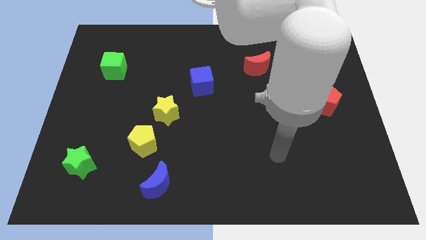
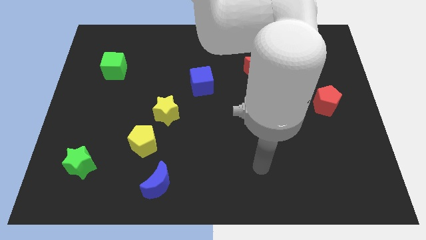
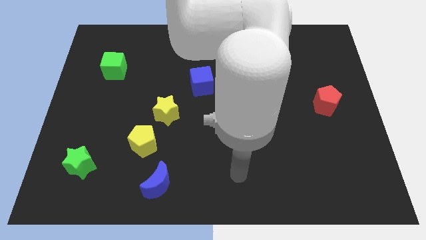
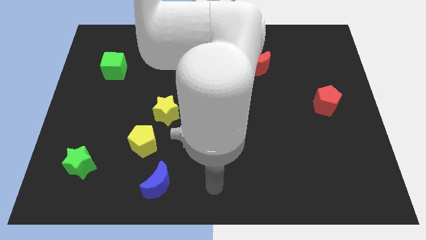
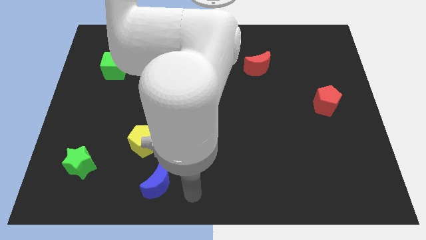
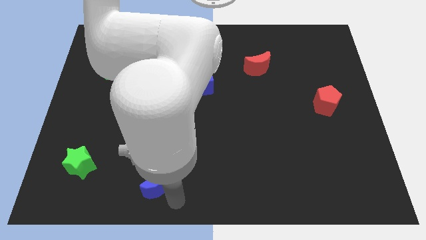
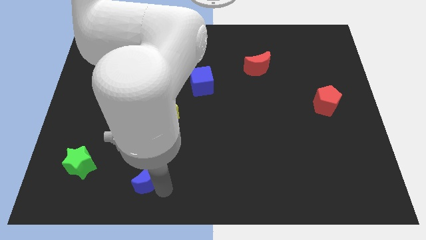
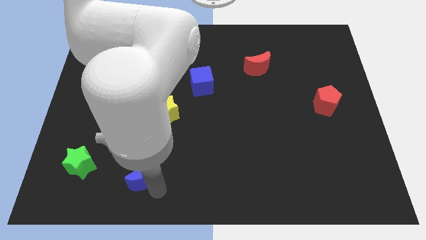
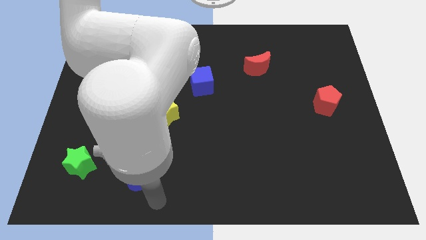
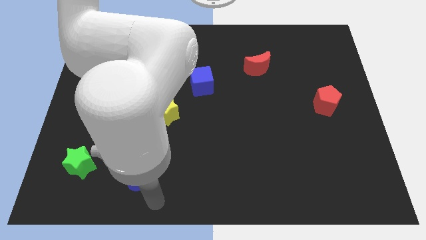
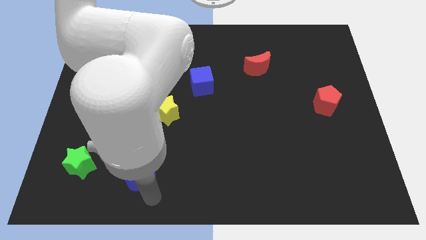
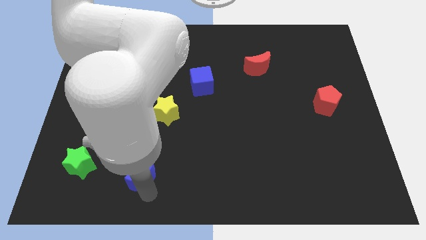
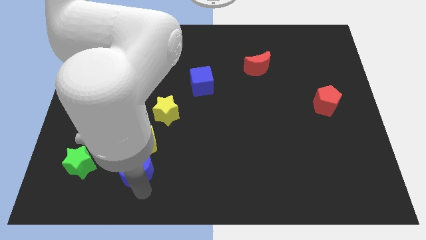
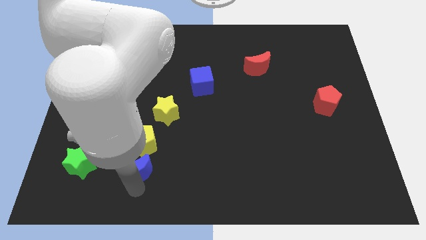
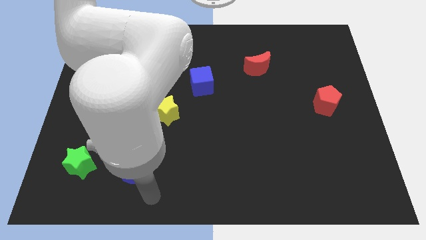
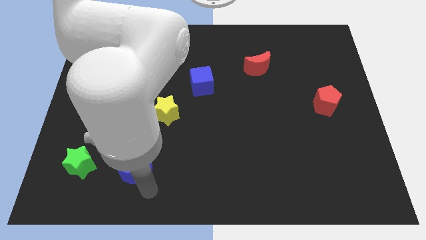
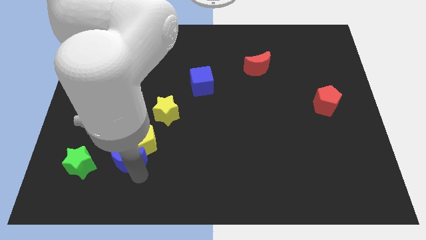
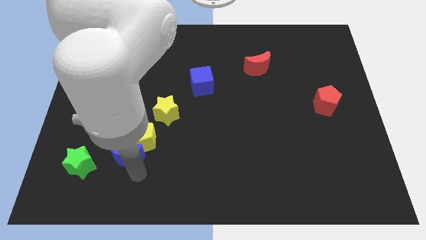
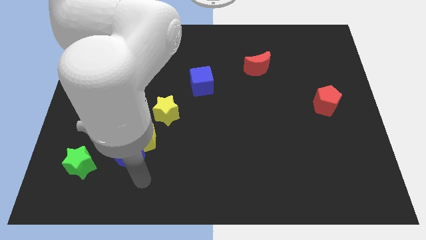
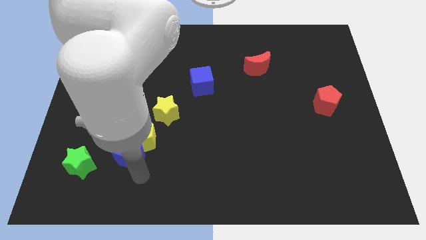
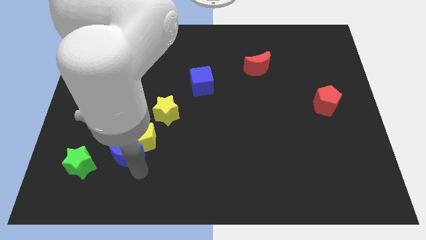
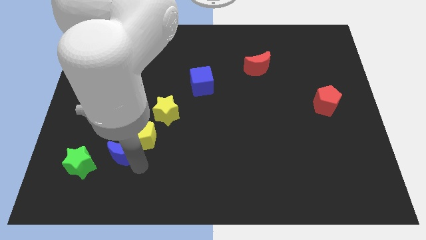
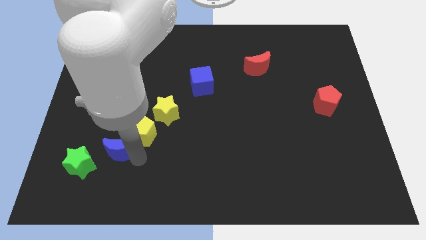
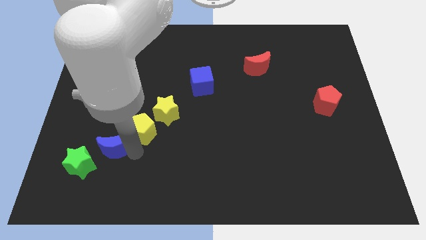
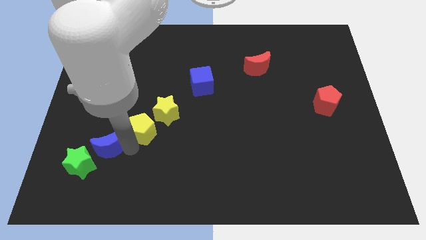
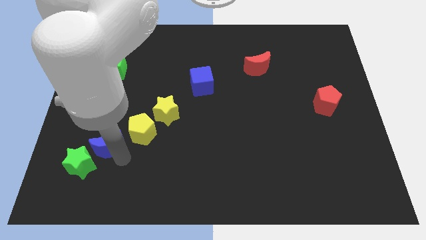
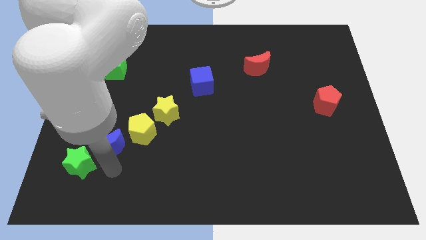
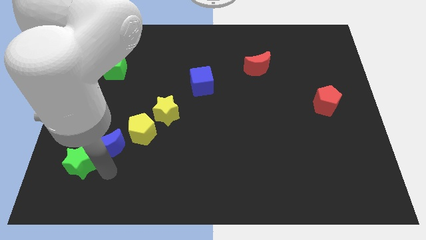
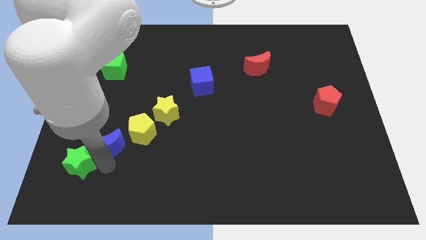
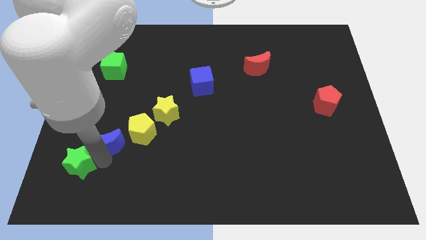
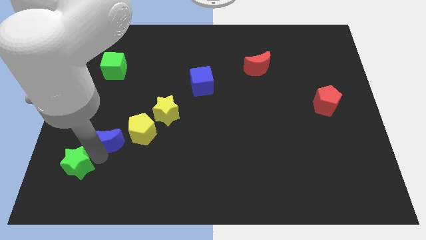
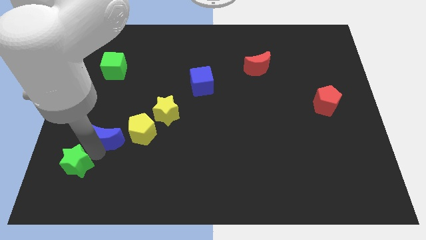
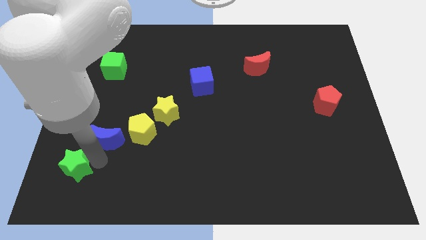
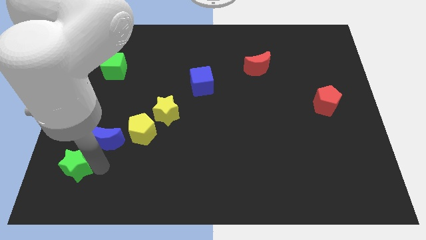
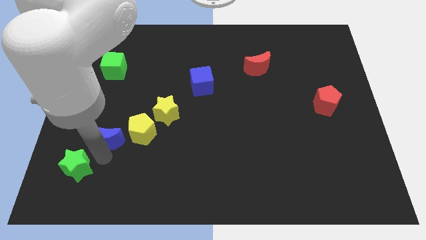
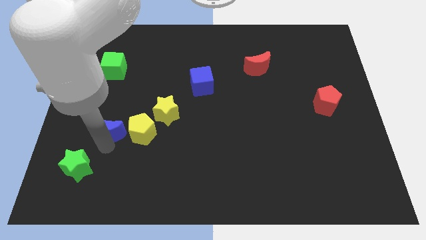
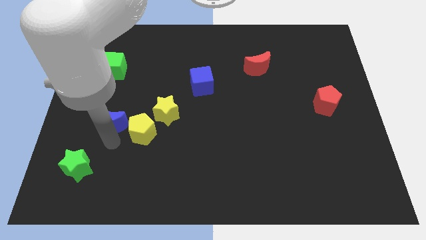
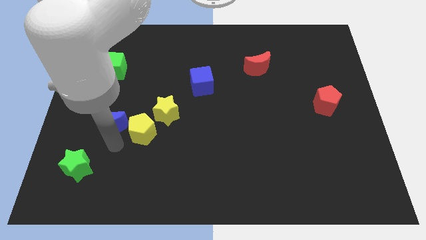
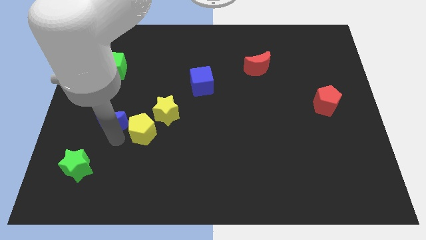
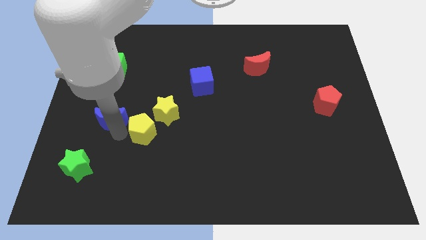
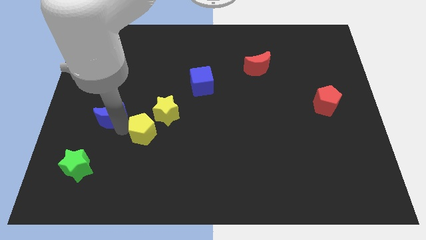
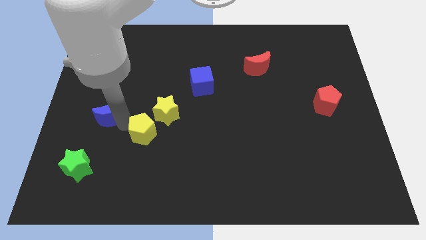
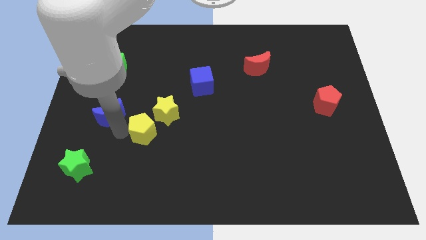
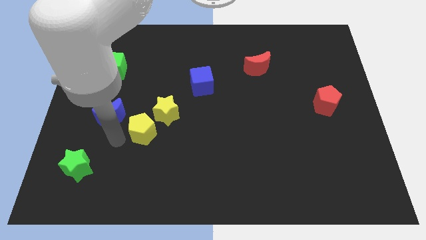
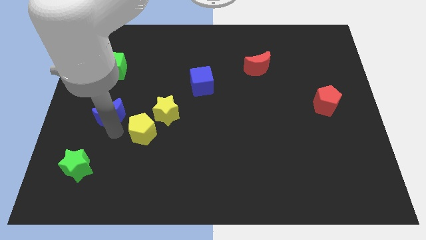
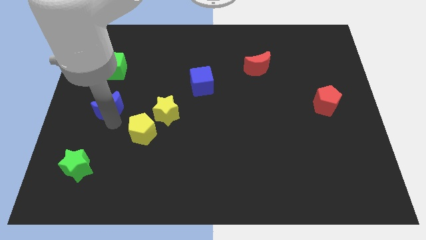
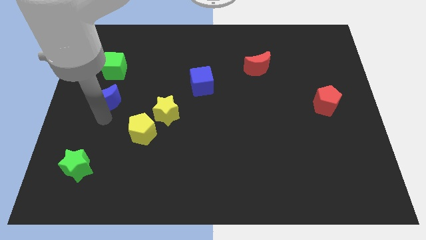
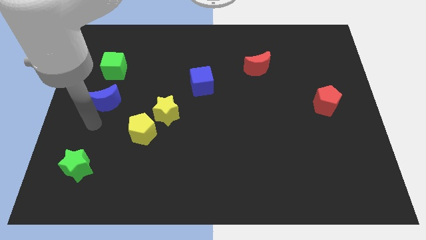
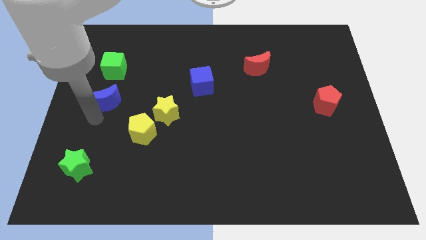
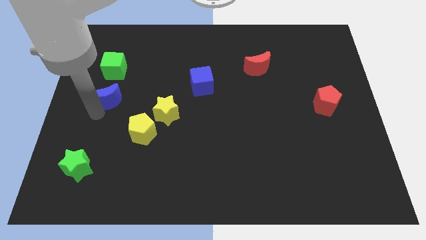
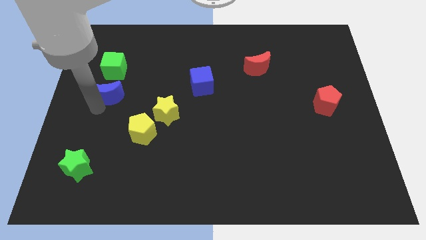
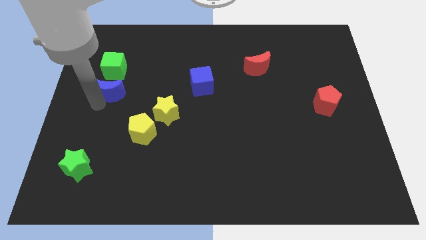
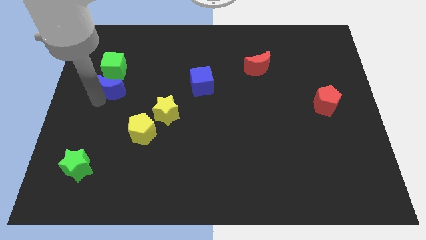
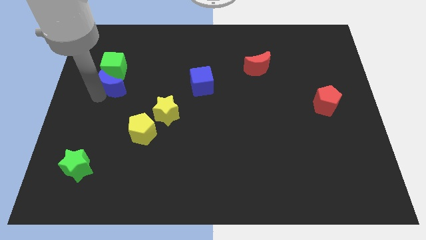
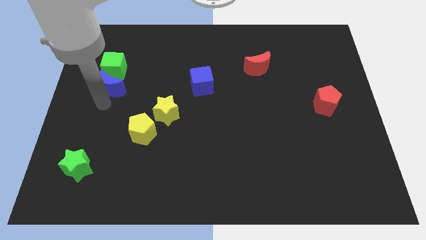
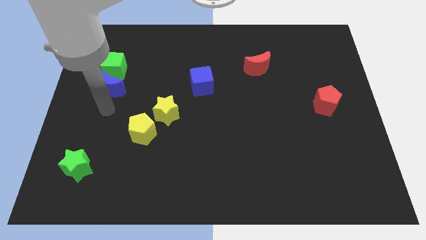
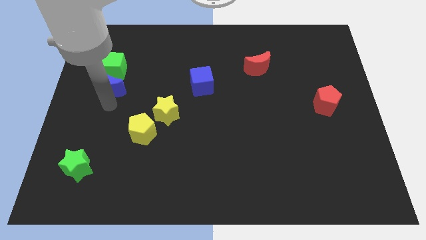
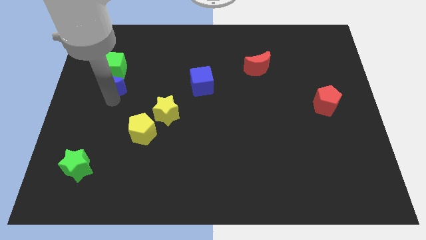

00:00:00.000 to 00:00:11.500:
put the blue moon towards the green cube

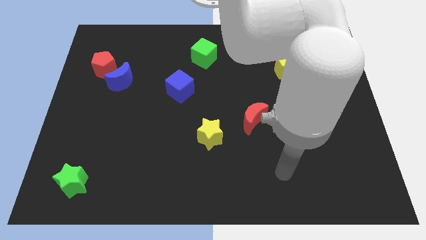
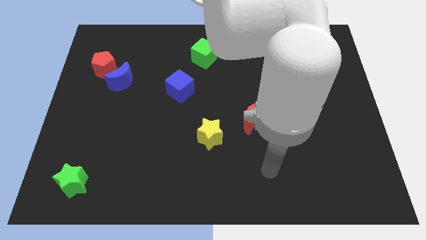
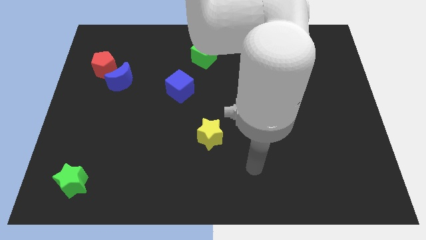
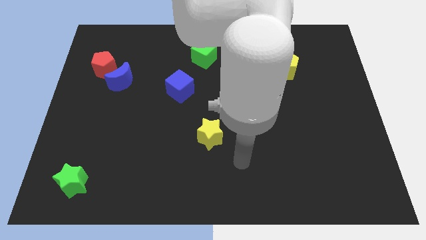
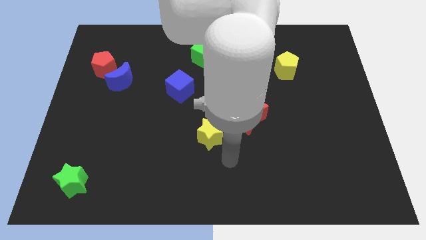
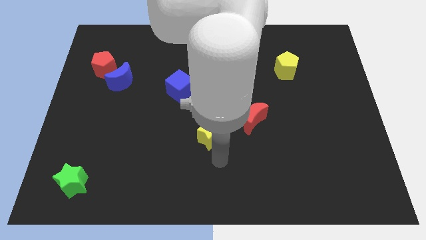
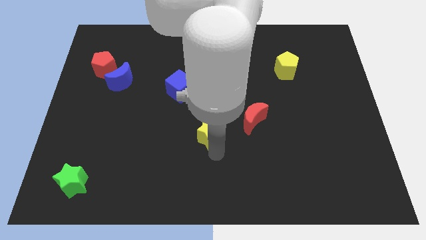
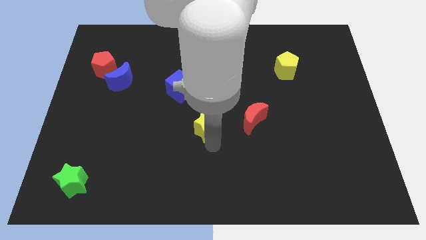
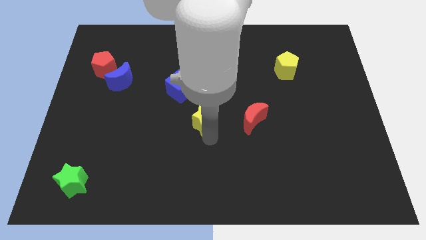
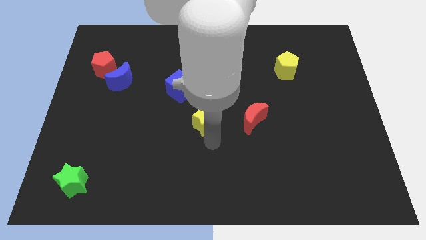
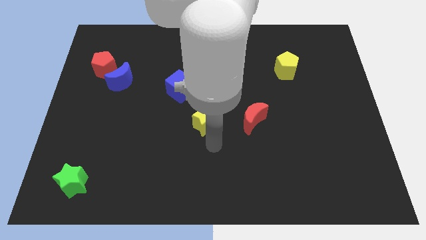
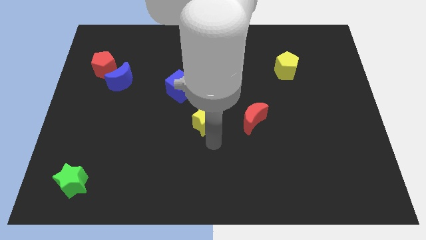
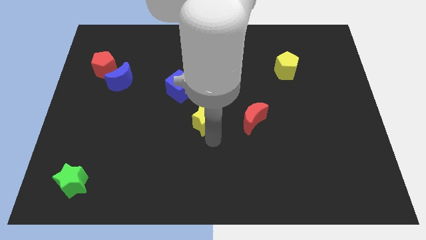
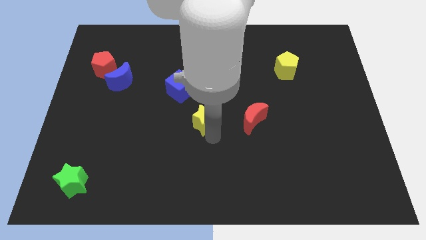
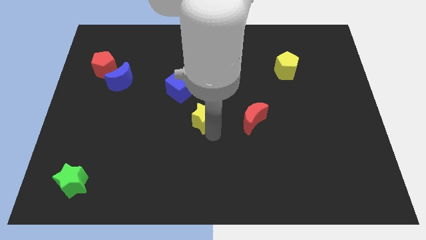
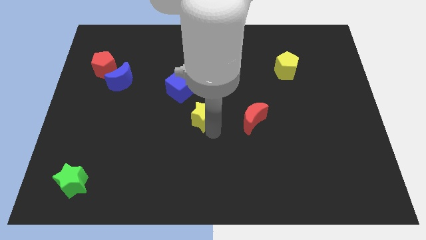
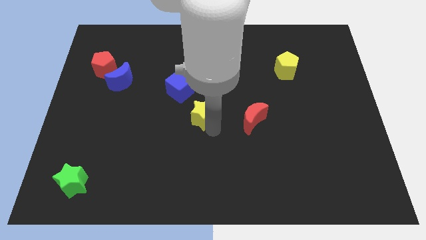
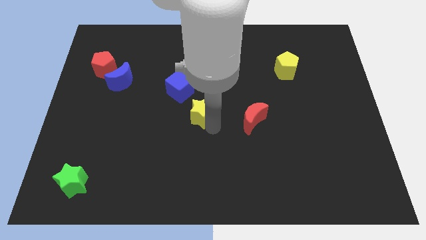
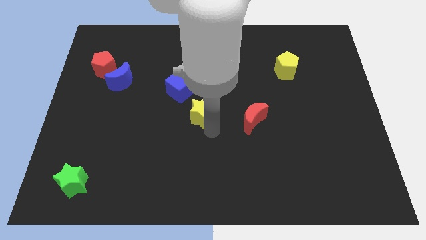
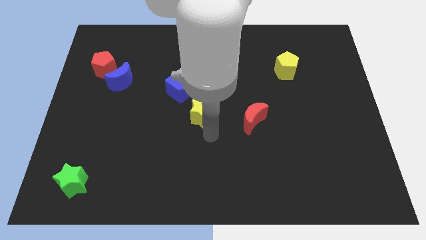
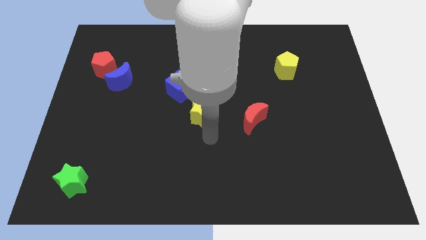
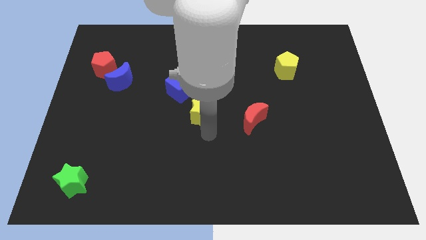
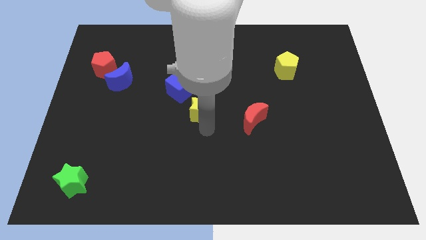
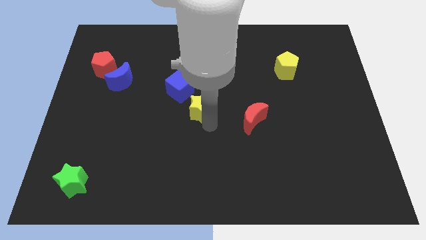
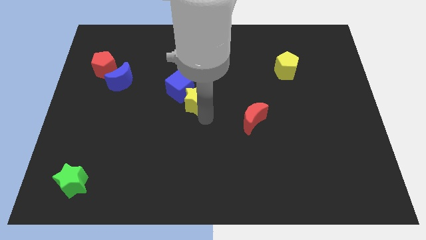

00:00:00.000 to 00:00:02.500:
slide the yellow star close to the blue cube
